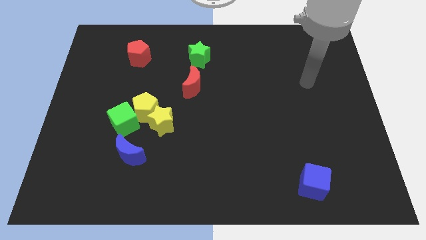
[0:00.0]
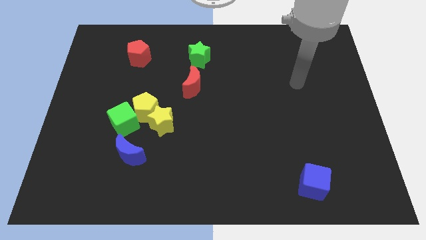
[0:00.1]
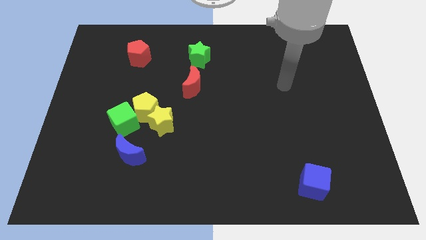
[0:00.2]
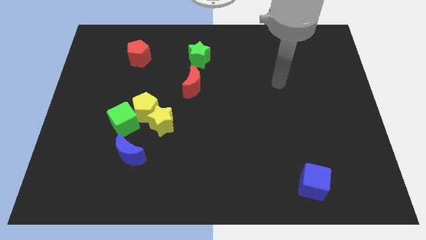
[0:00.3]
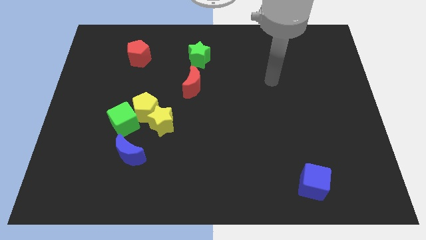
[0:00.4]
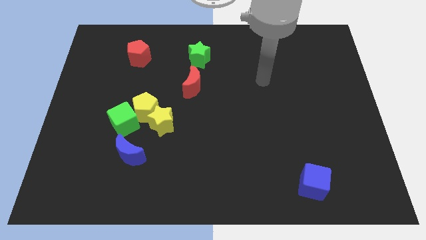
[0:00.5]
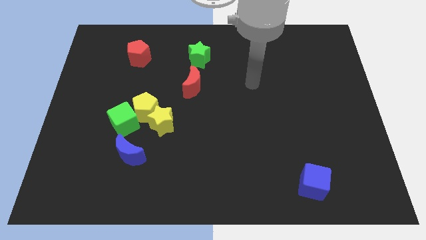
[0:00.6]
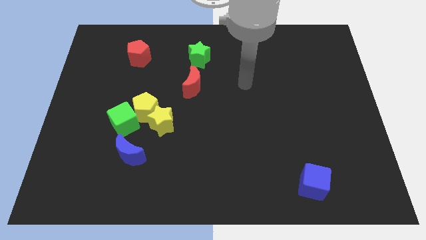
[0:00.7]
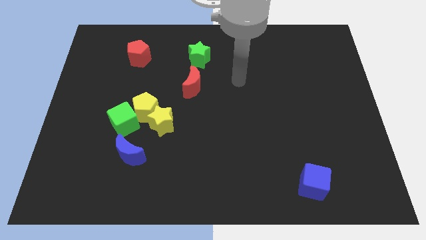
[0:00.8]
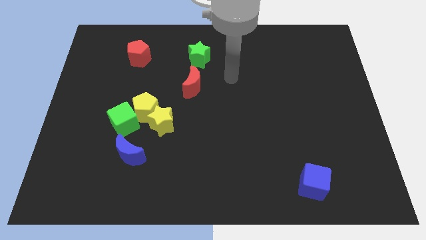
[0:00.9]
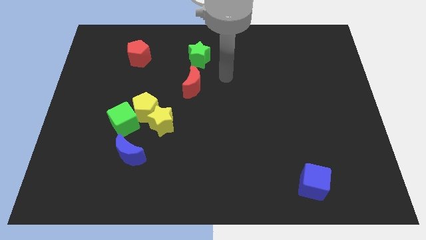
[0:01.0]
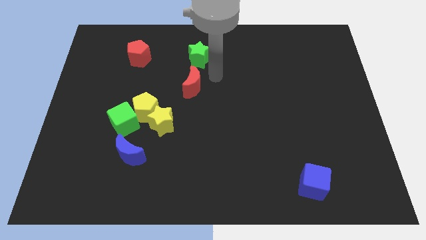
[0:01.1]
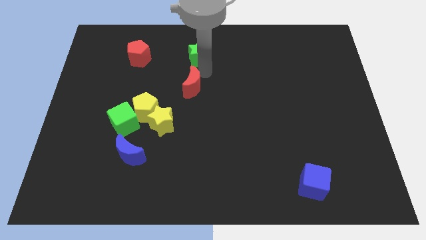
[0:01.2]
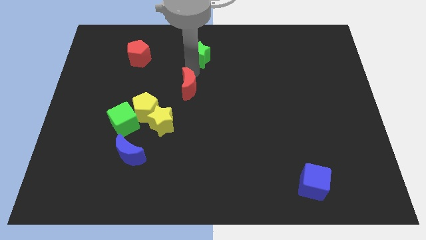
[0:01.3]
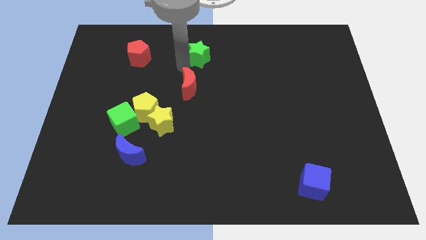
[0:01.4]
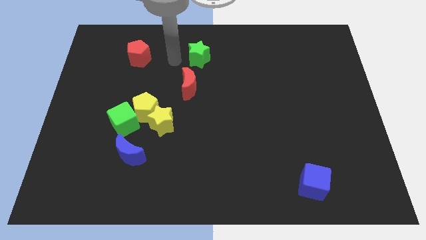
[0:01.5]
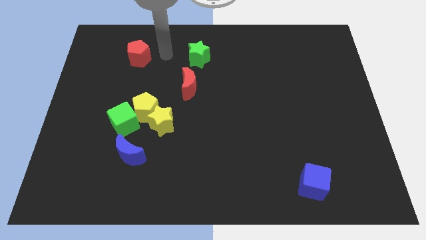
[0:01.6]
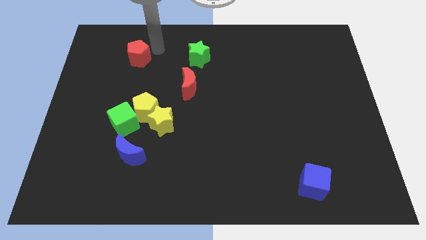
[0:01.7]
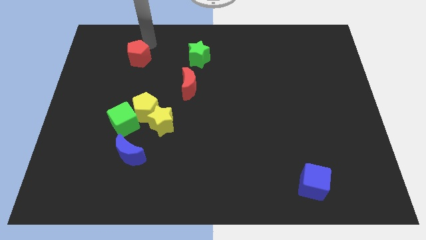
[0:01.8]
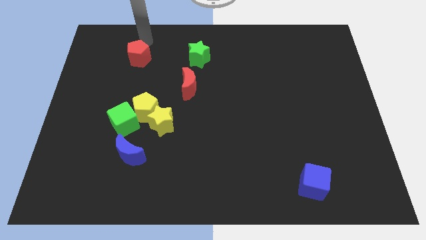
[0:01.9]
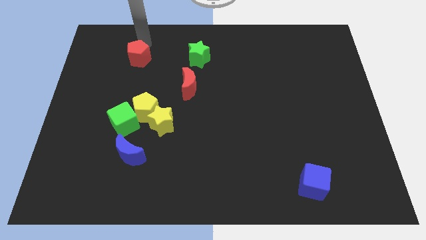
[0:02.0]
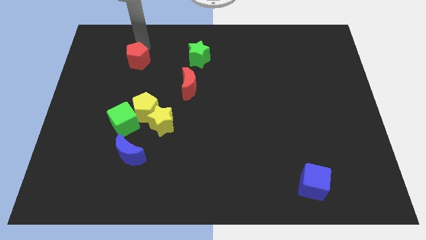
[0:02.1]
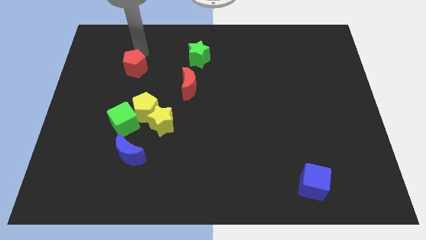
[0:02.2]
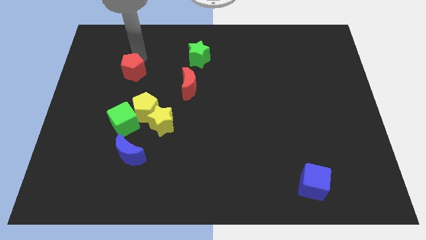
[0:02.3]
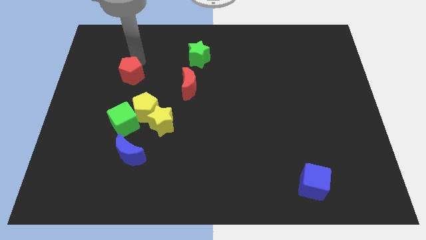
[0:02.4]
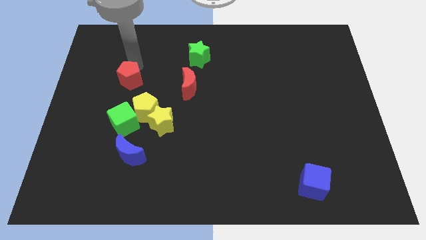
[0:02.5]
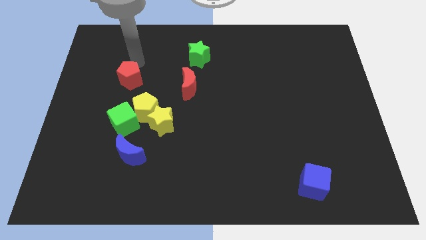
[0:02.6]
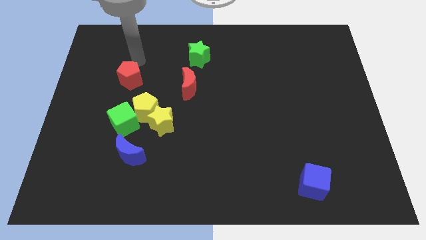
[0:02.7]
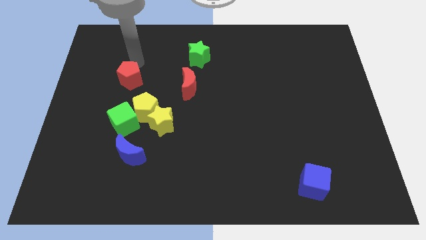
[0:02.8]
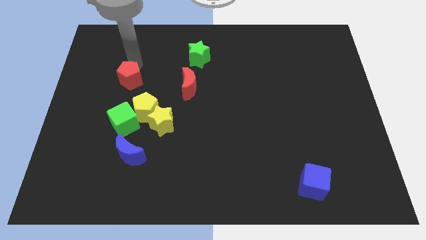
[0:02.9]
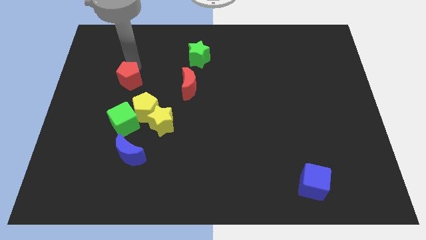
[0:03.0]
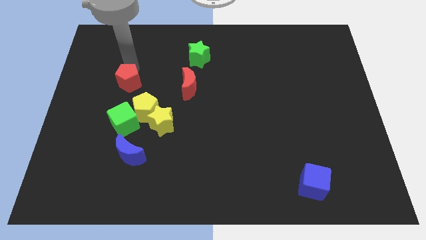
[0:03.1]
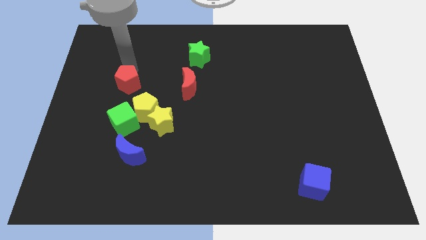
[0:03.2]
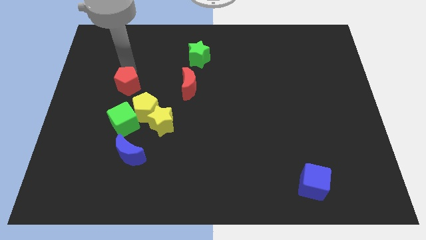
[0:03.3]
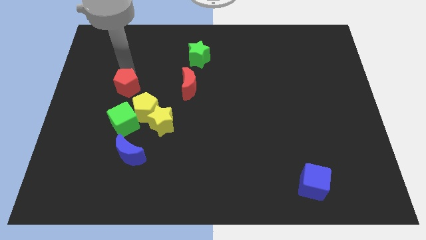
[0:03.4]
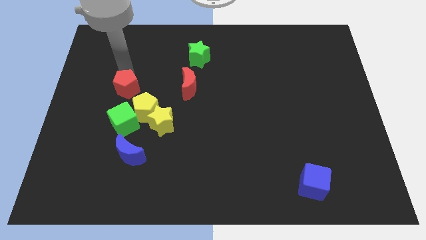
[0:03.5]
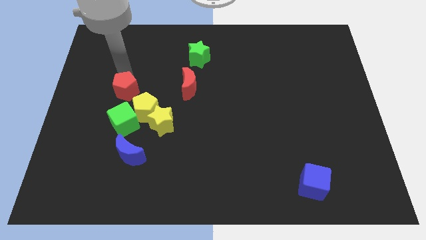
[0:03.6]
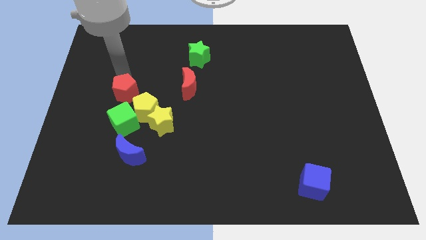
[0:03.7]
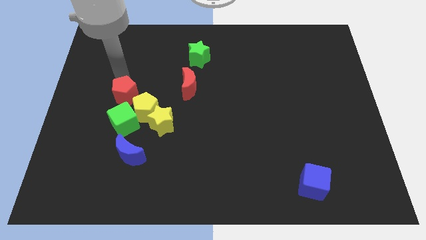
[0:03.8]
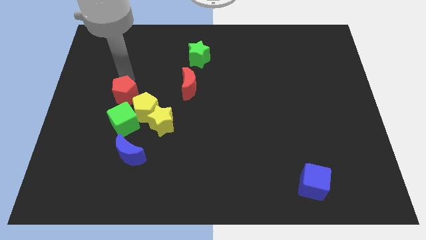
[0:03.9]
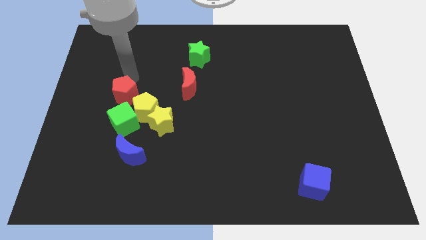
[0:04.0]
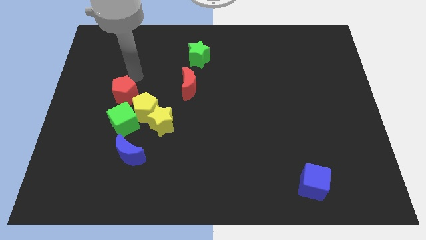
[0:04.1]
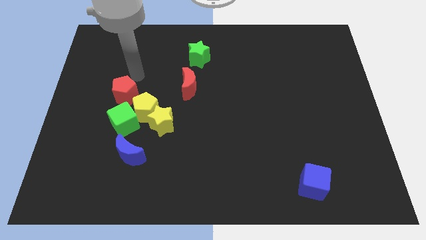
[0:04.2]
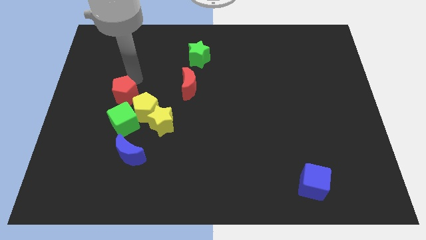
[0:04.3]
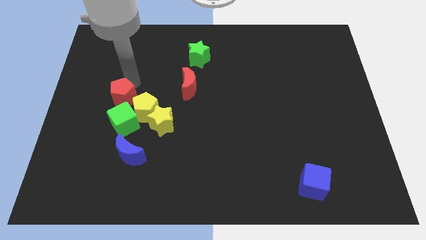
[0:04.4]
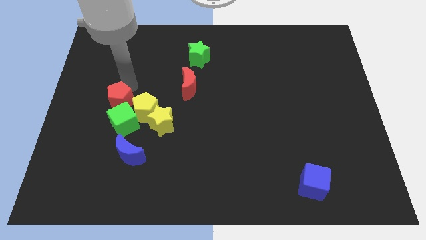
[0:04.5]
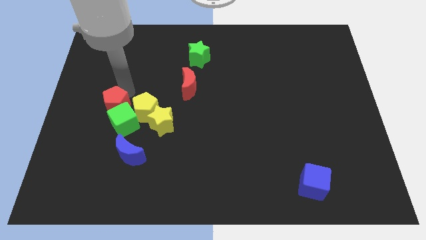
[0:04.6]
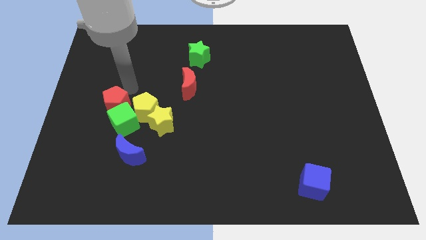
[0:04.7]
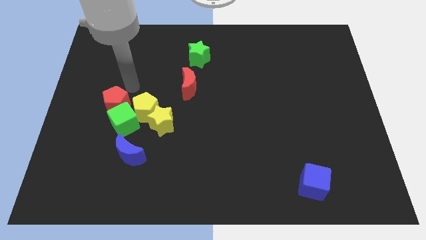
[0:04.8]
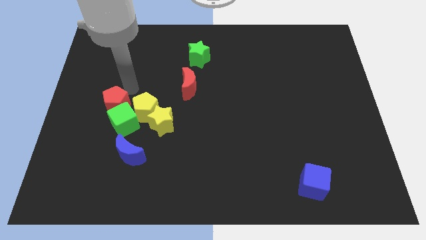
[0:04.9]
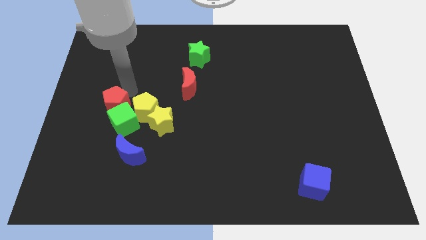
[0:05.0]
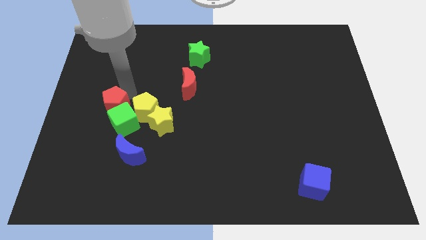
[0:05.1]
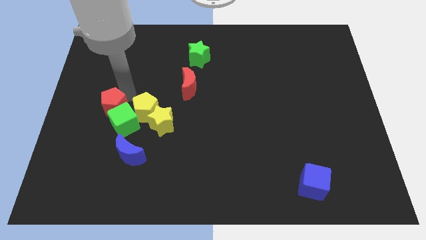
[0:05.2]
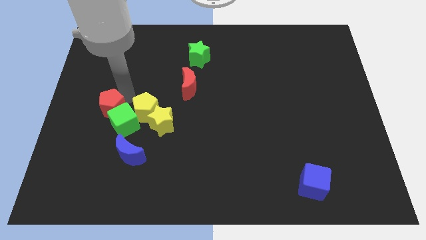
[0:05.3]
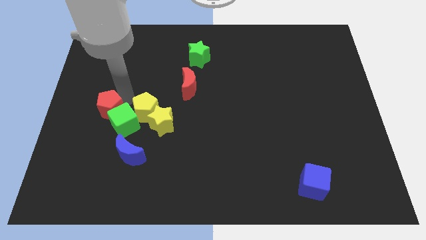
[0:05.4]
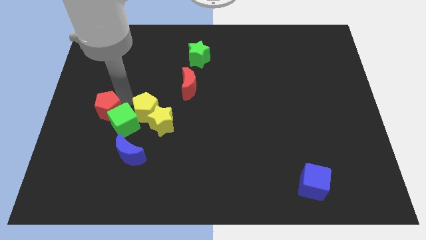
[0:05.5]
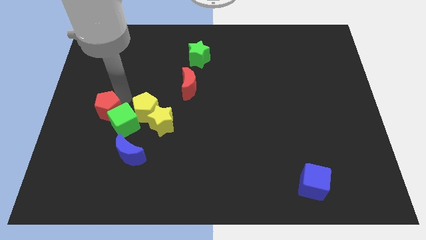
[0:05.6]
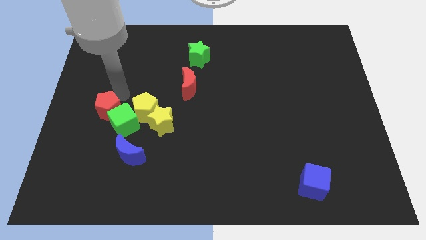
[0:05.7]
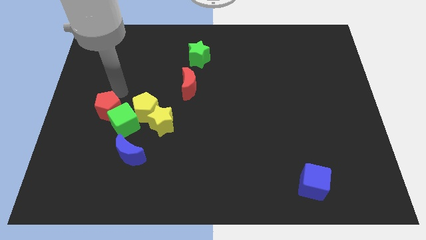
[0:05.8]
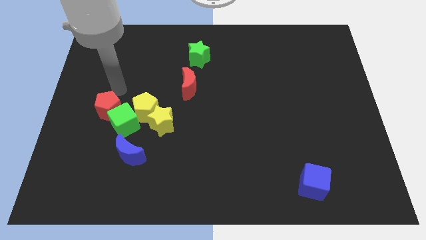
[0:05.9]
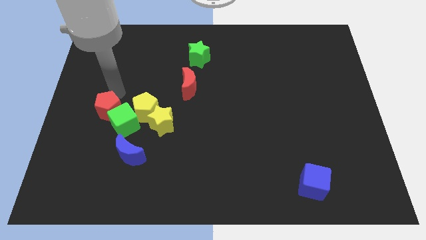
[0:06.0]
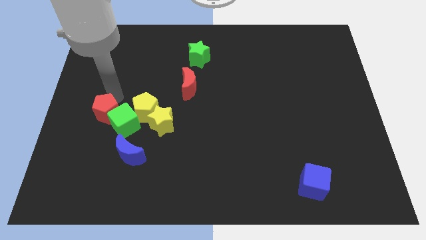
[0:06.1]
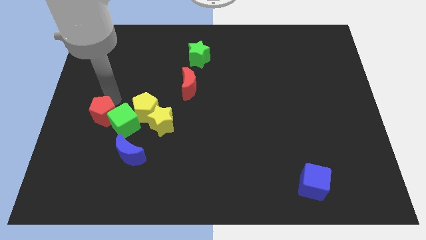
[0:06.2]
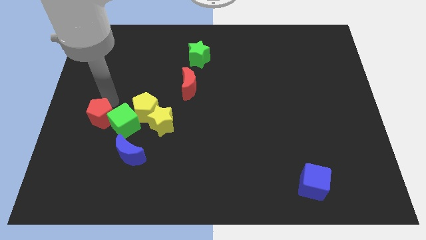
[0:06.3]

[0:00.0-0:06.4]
put the red pentagon diagonally up and to the left of the blue moon
